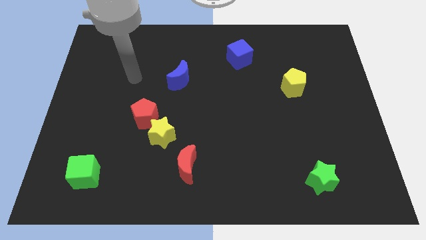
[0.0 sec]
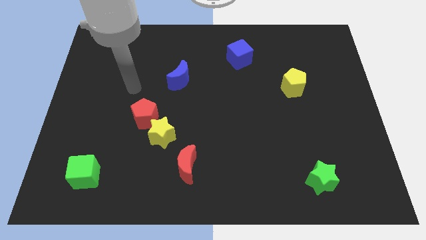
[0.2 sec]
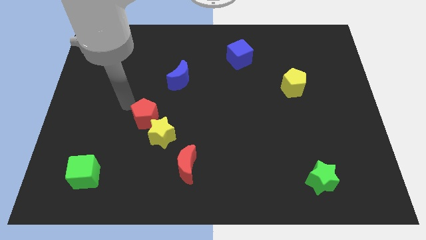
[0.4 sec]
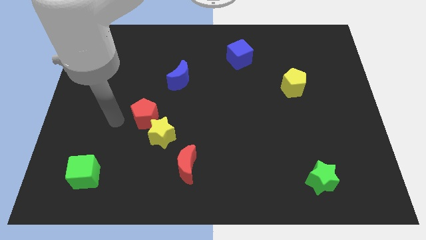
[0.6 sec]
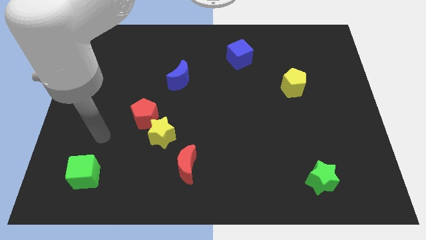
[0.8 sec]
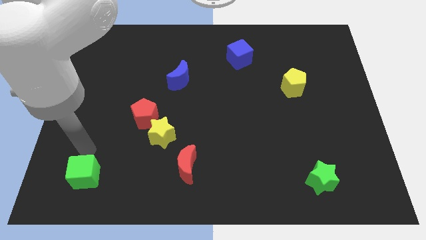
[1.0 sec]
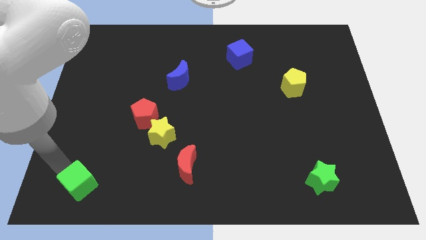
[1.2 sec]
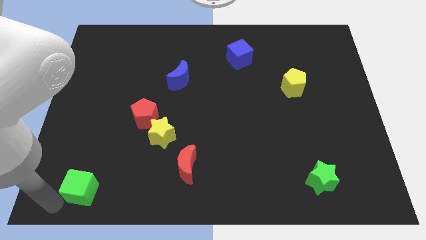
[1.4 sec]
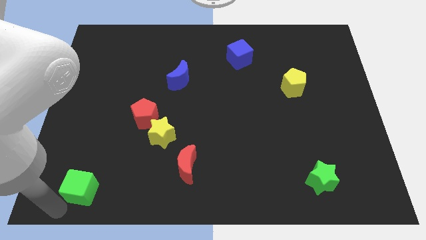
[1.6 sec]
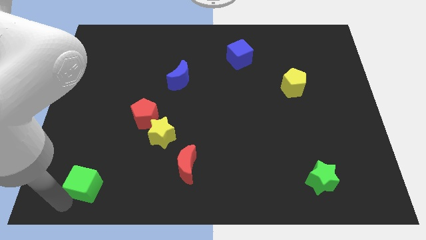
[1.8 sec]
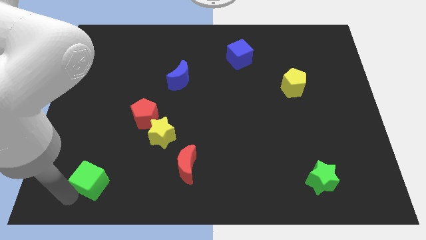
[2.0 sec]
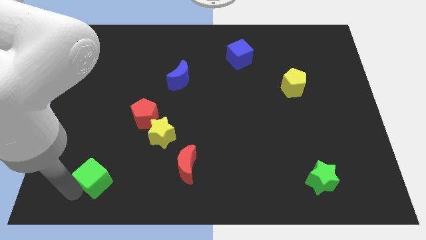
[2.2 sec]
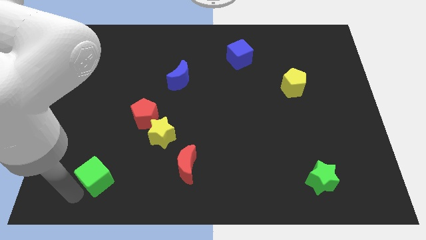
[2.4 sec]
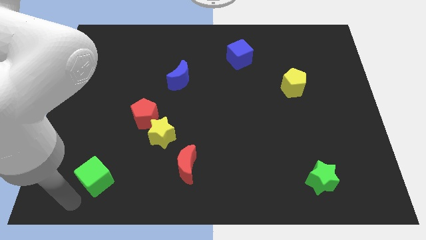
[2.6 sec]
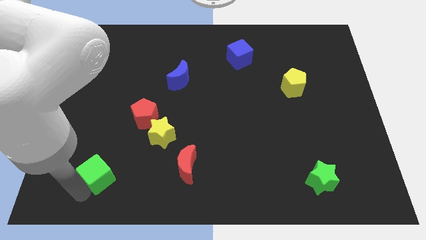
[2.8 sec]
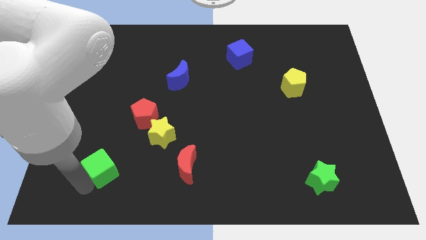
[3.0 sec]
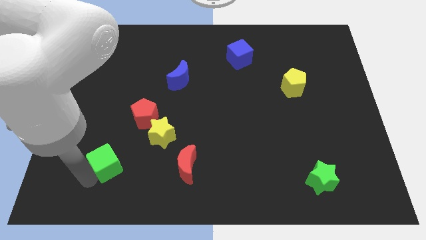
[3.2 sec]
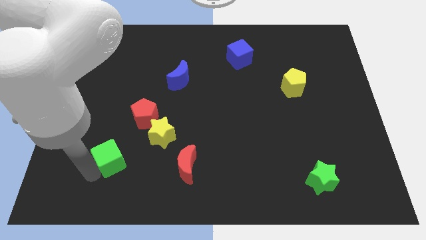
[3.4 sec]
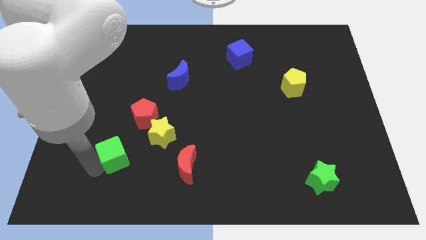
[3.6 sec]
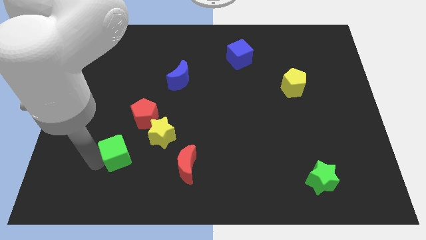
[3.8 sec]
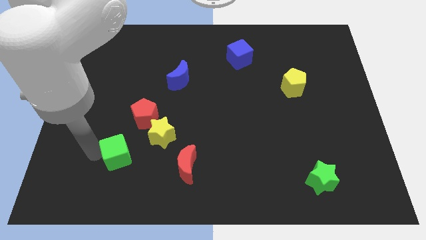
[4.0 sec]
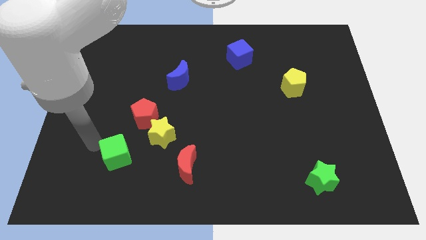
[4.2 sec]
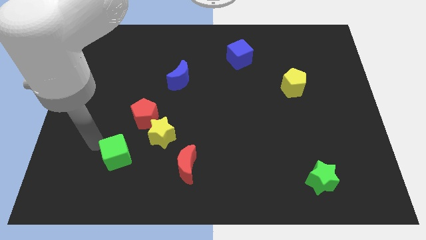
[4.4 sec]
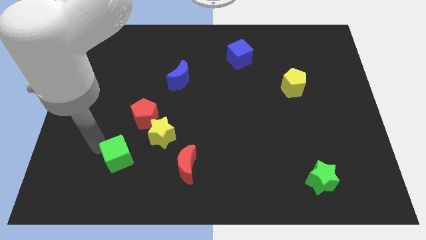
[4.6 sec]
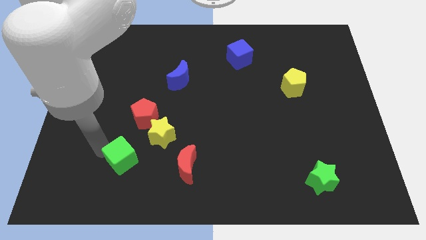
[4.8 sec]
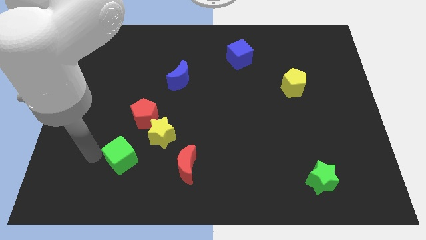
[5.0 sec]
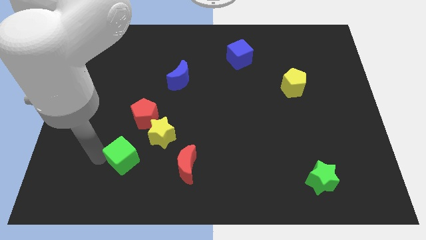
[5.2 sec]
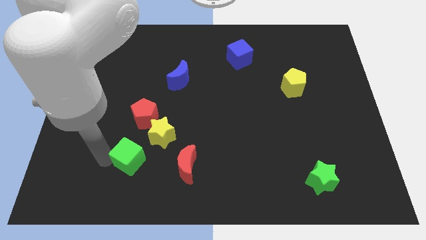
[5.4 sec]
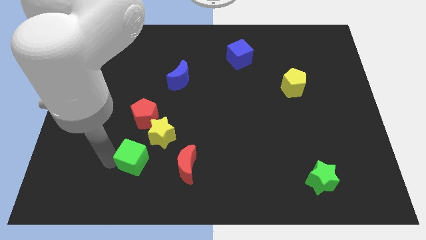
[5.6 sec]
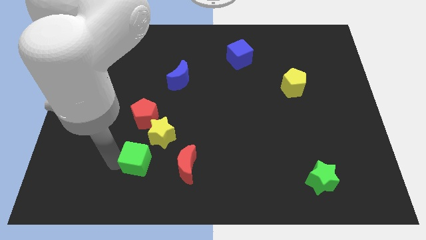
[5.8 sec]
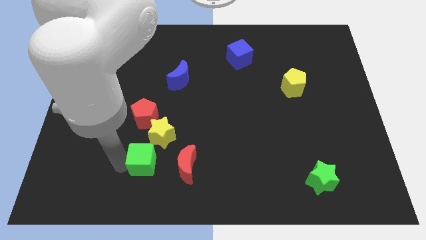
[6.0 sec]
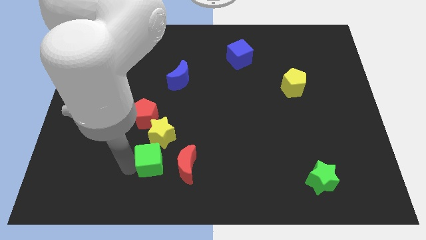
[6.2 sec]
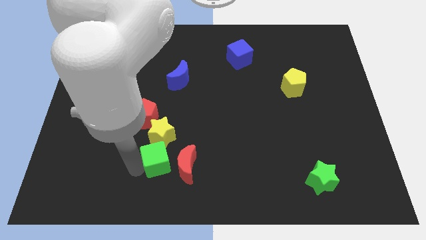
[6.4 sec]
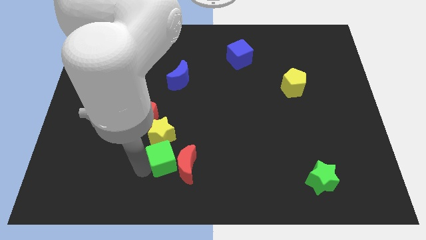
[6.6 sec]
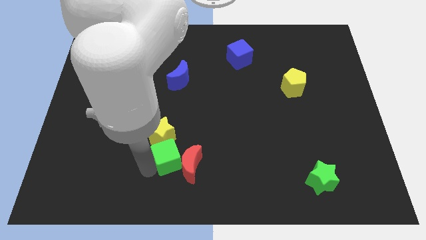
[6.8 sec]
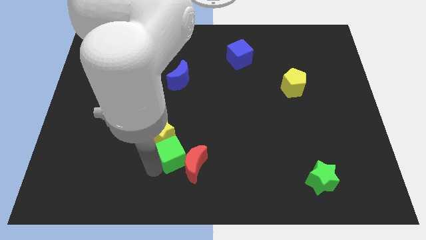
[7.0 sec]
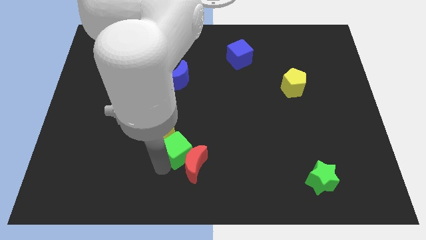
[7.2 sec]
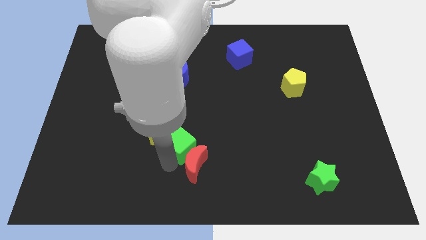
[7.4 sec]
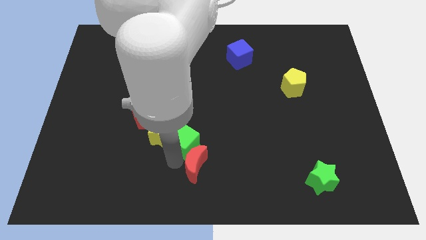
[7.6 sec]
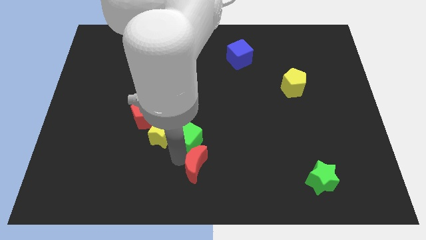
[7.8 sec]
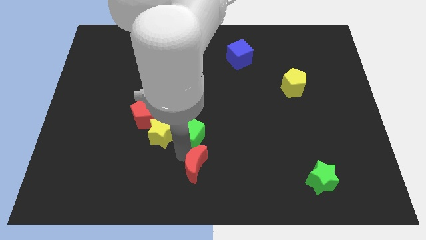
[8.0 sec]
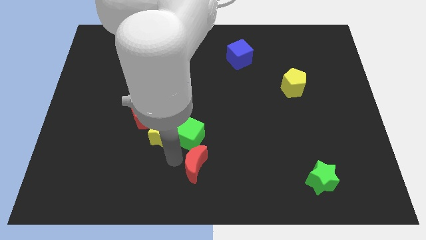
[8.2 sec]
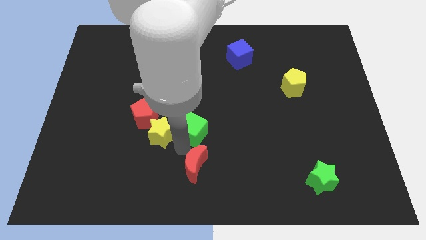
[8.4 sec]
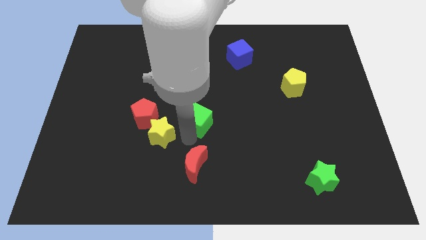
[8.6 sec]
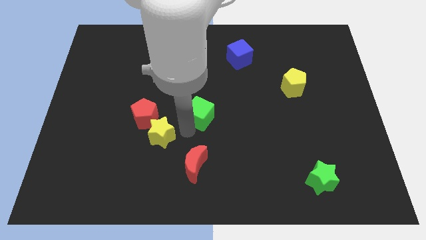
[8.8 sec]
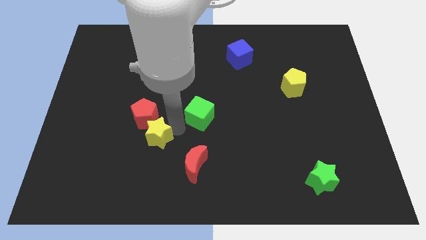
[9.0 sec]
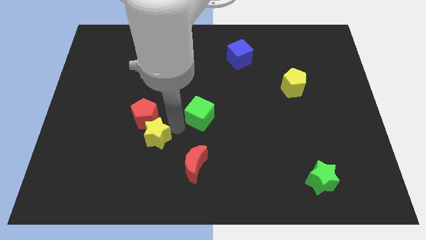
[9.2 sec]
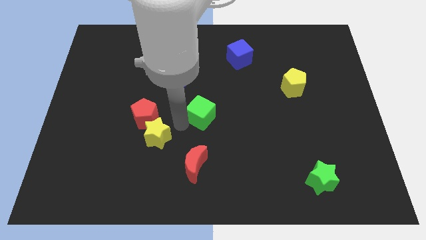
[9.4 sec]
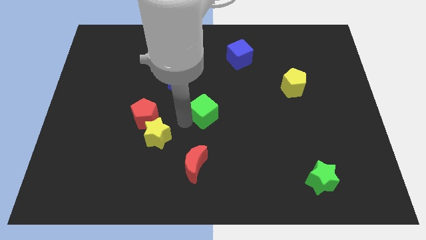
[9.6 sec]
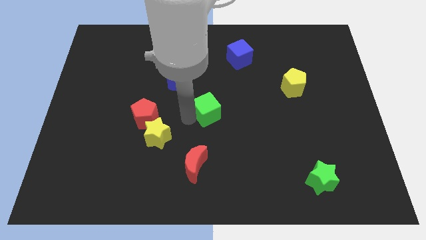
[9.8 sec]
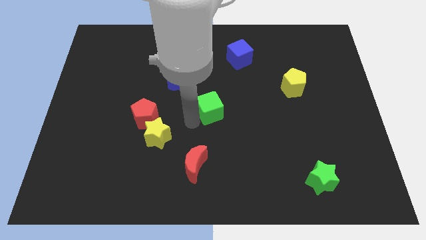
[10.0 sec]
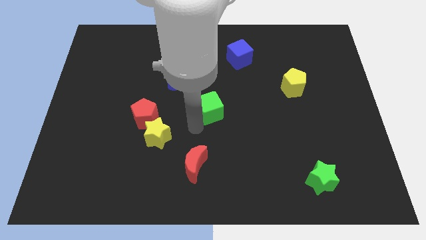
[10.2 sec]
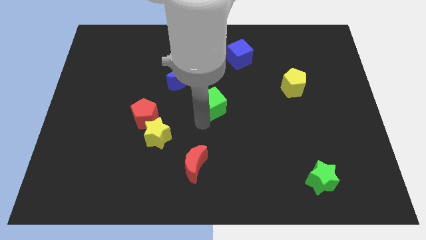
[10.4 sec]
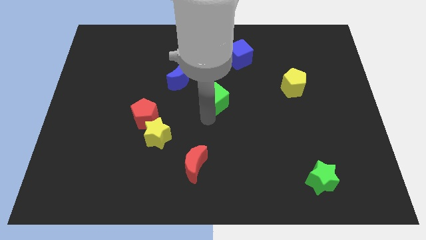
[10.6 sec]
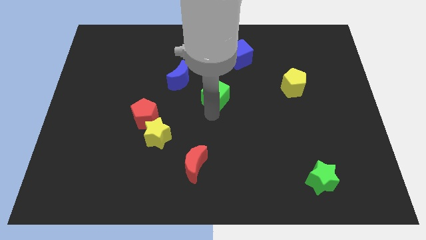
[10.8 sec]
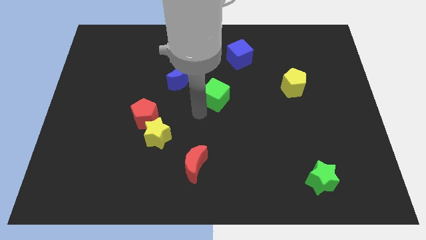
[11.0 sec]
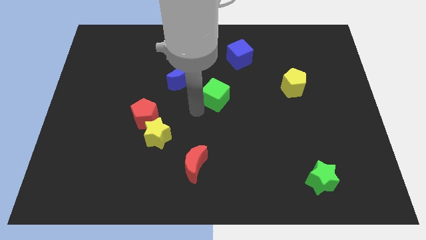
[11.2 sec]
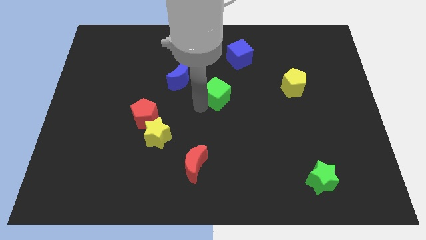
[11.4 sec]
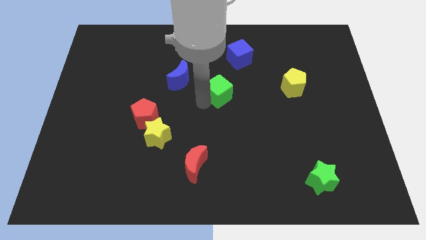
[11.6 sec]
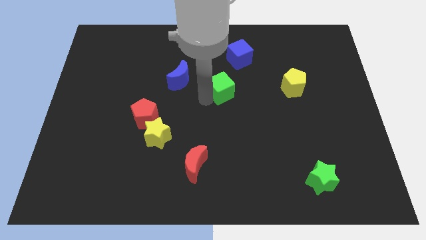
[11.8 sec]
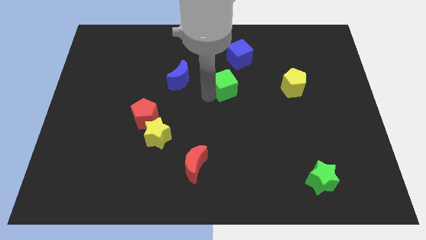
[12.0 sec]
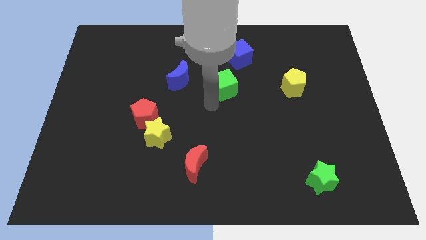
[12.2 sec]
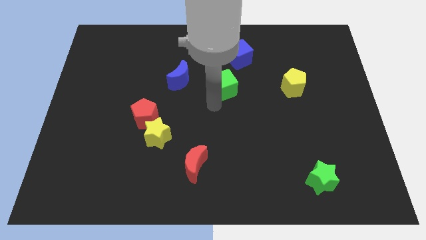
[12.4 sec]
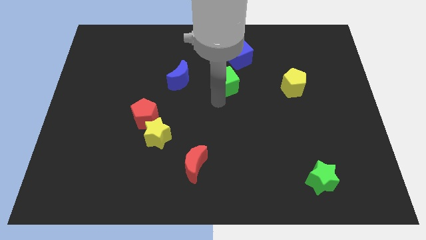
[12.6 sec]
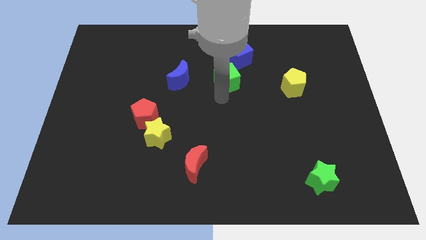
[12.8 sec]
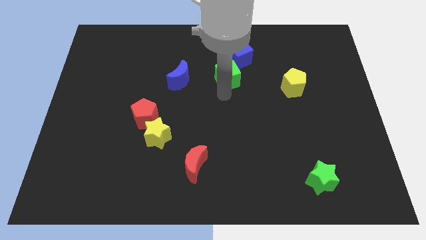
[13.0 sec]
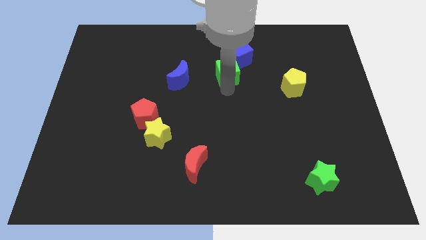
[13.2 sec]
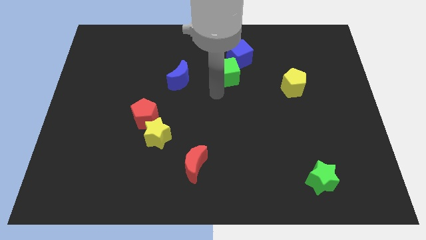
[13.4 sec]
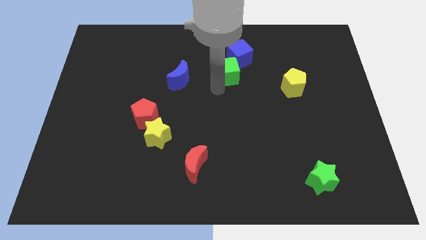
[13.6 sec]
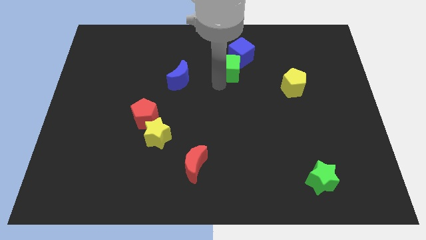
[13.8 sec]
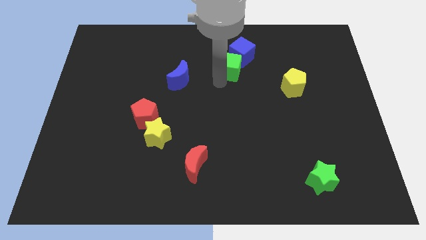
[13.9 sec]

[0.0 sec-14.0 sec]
put the green cube next to the blue cube

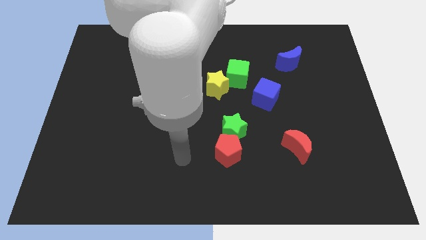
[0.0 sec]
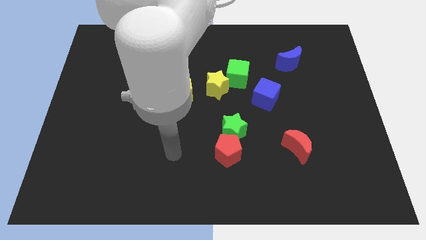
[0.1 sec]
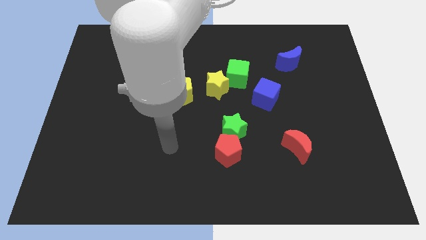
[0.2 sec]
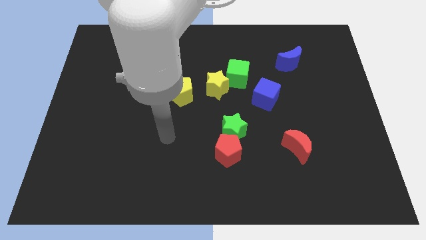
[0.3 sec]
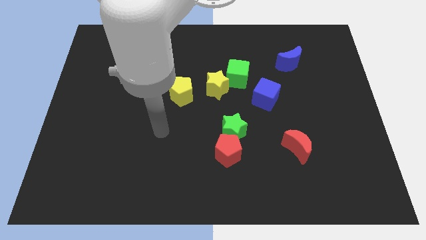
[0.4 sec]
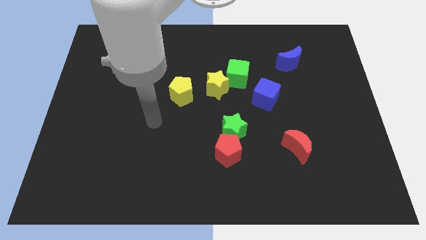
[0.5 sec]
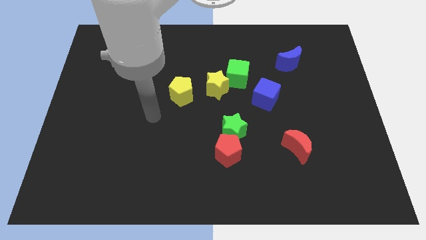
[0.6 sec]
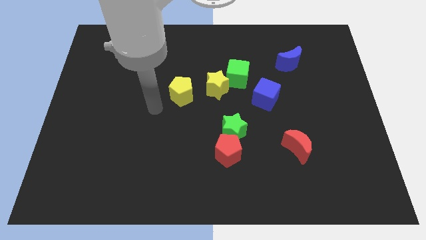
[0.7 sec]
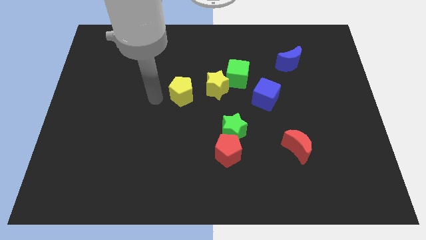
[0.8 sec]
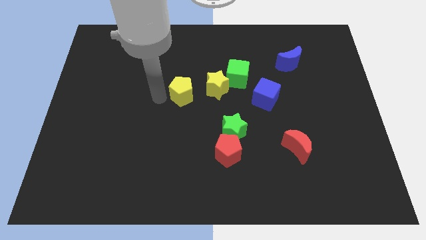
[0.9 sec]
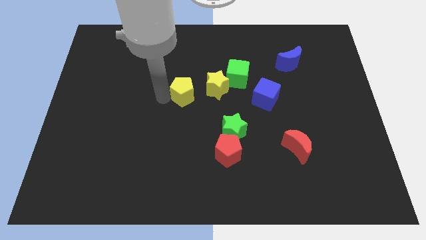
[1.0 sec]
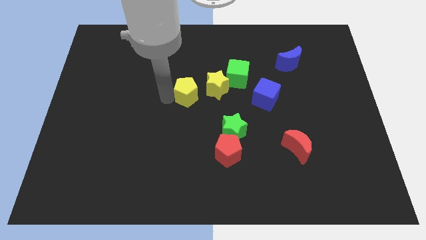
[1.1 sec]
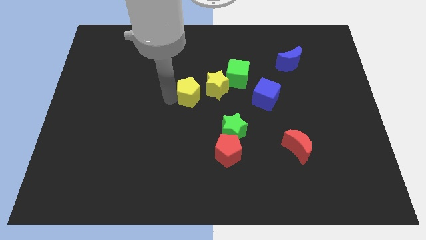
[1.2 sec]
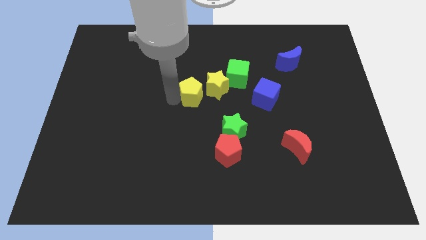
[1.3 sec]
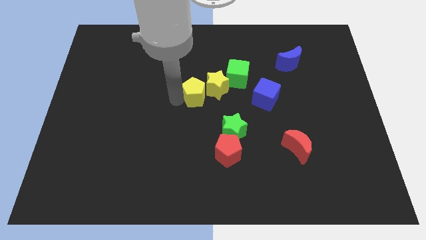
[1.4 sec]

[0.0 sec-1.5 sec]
move the yellow pentagon towards the yellow star
